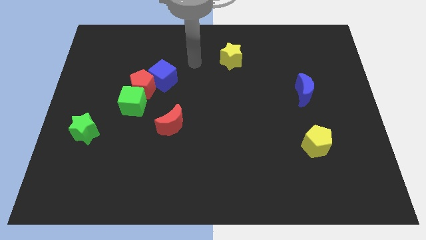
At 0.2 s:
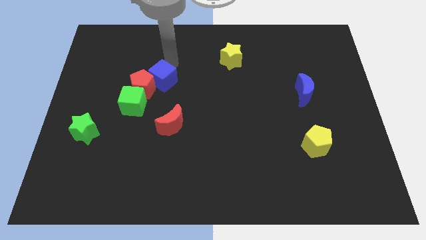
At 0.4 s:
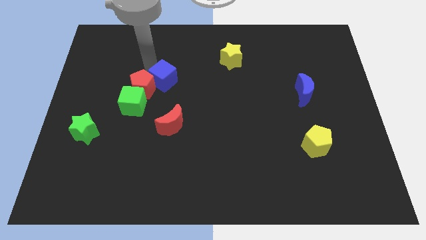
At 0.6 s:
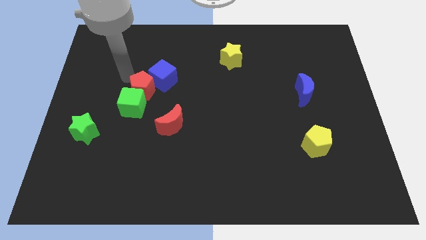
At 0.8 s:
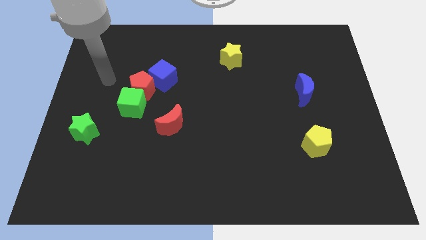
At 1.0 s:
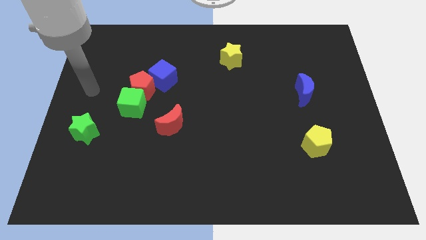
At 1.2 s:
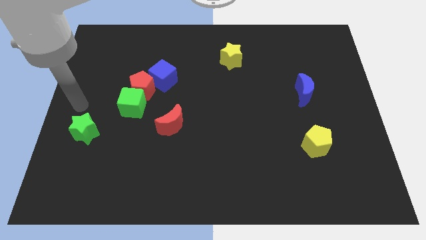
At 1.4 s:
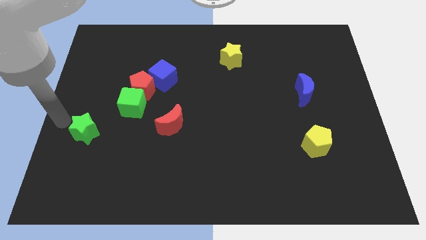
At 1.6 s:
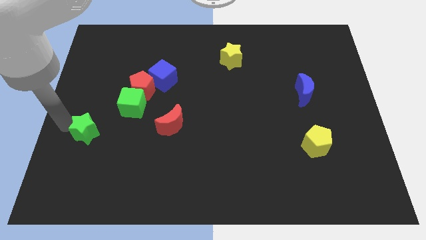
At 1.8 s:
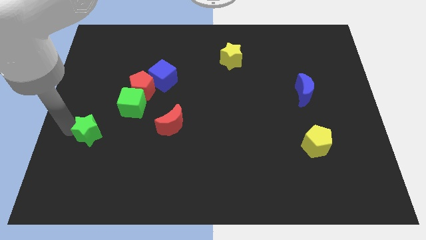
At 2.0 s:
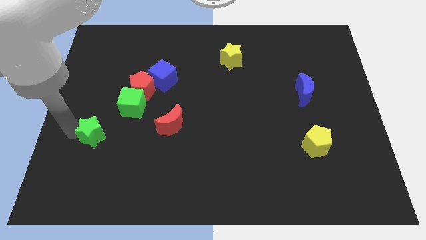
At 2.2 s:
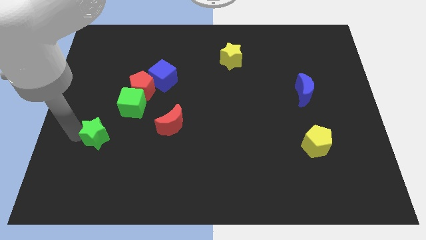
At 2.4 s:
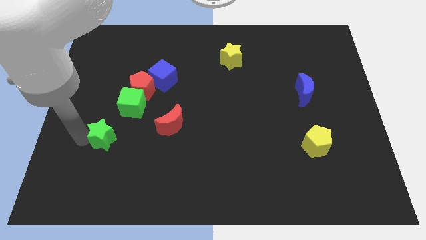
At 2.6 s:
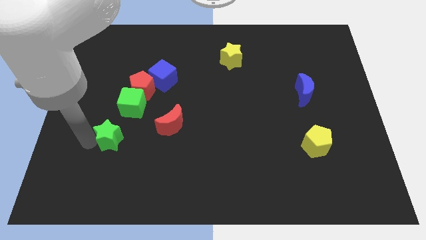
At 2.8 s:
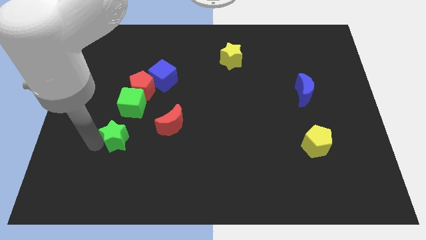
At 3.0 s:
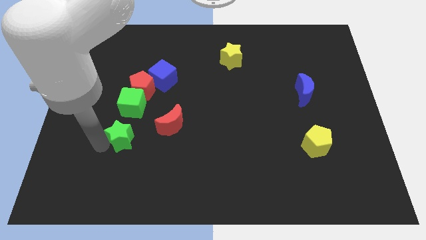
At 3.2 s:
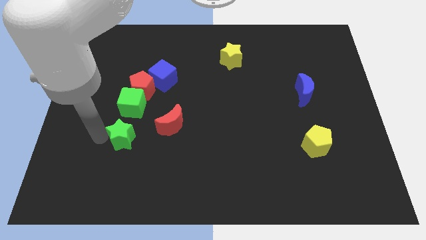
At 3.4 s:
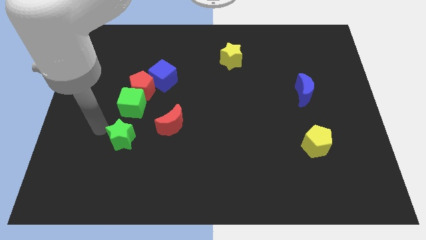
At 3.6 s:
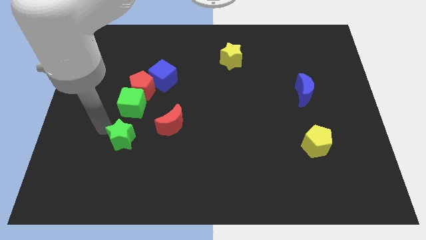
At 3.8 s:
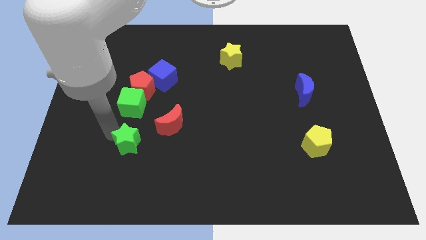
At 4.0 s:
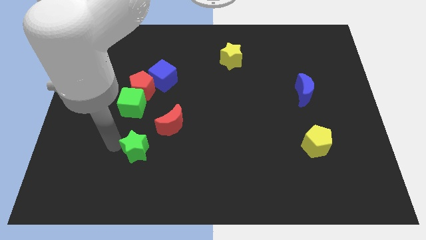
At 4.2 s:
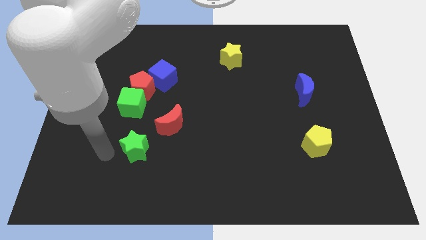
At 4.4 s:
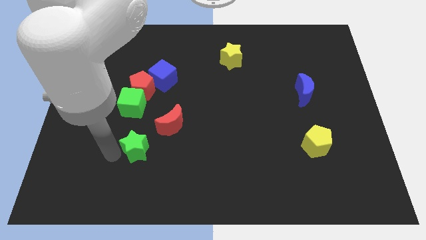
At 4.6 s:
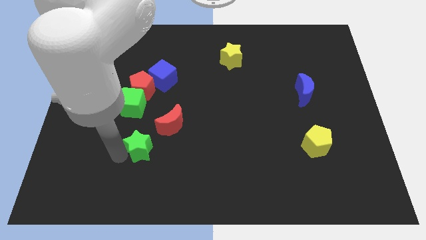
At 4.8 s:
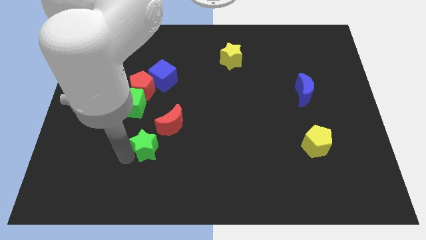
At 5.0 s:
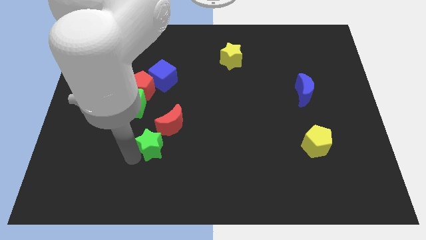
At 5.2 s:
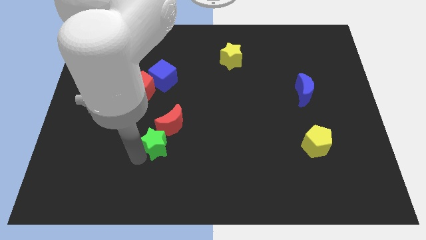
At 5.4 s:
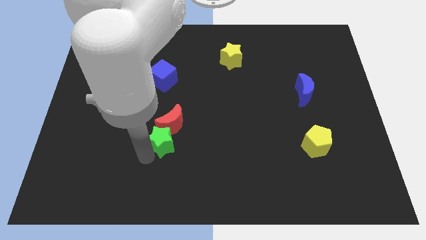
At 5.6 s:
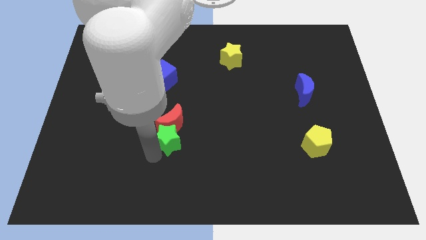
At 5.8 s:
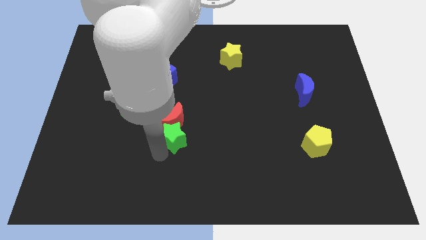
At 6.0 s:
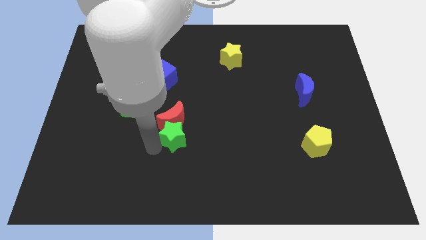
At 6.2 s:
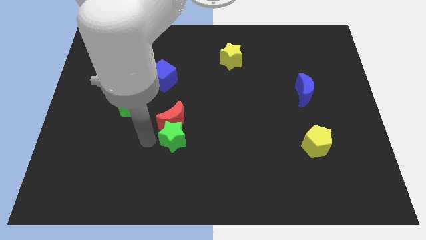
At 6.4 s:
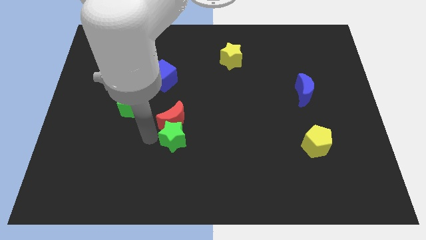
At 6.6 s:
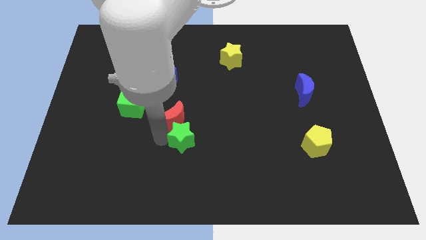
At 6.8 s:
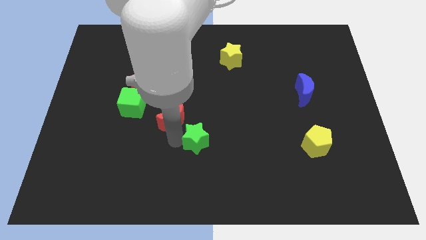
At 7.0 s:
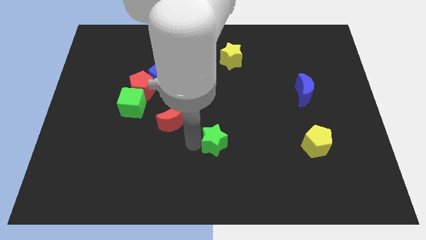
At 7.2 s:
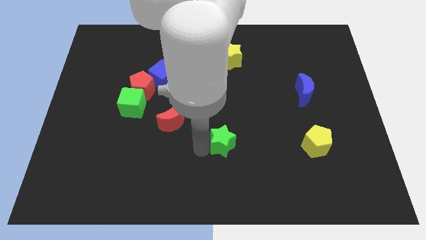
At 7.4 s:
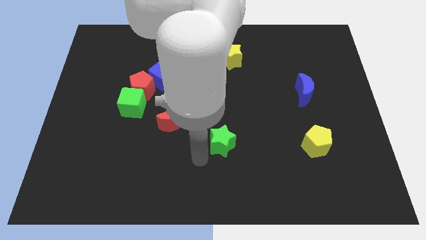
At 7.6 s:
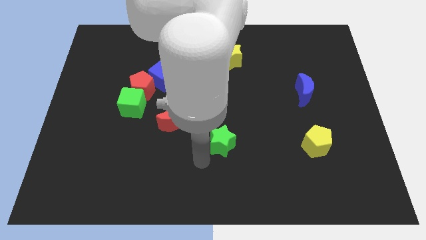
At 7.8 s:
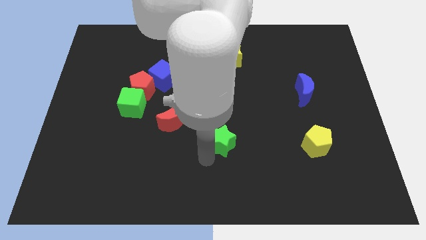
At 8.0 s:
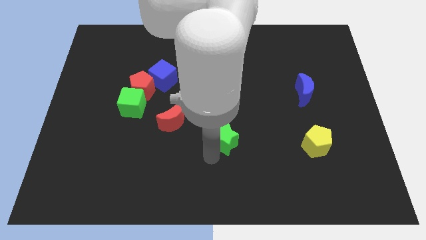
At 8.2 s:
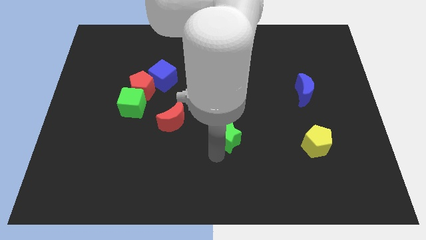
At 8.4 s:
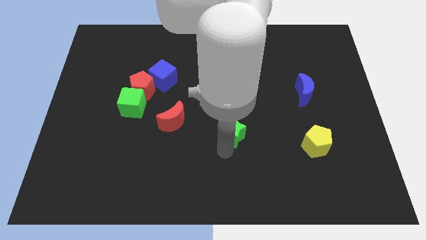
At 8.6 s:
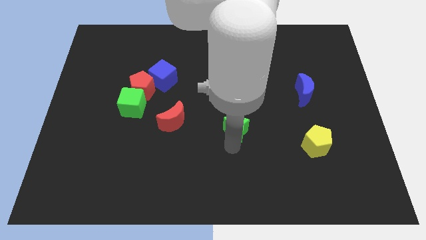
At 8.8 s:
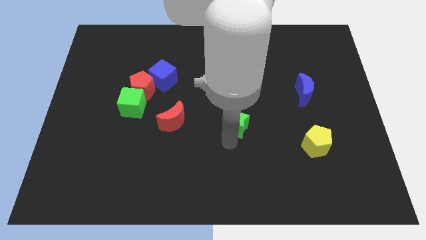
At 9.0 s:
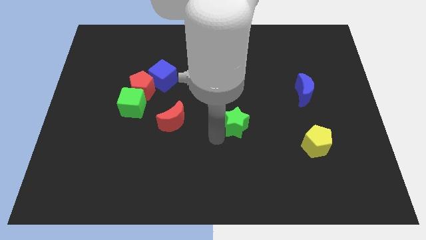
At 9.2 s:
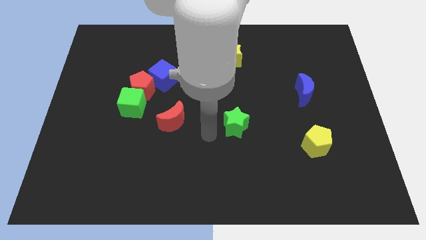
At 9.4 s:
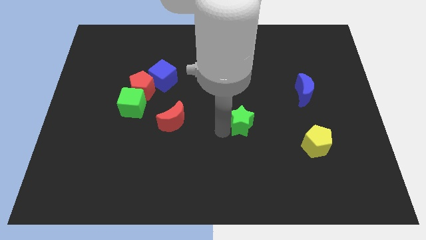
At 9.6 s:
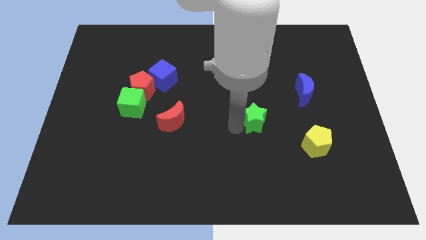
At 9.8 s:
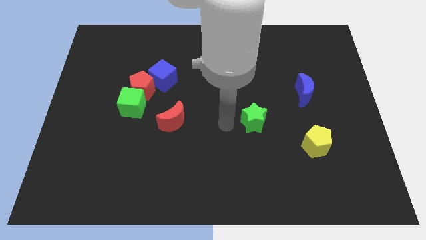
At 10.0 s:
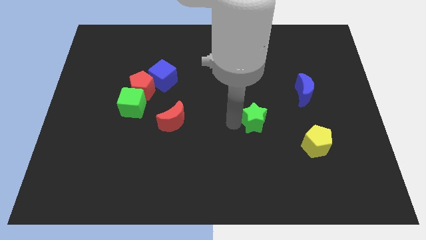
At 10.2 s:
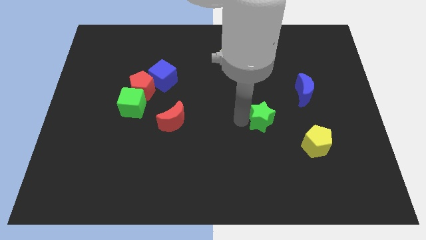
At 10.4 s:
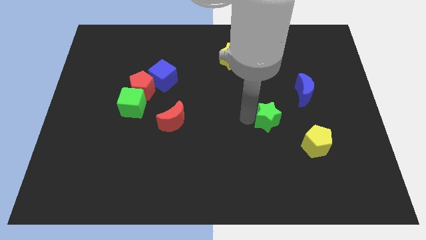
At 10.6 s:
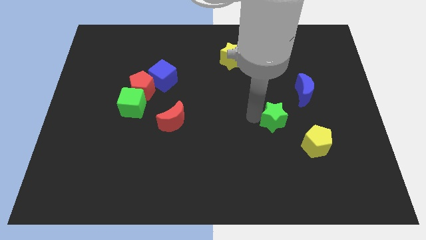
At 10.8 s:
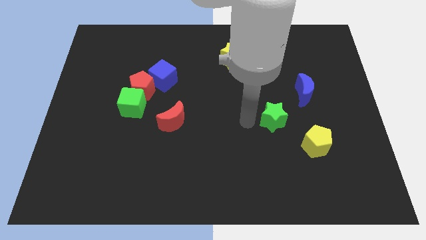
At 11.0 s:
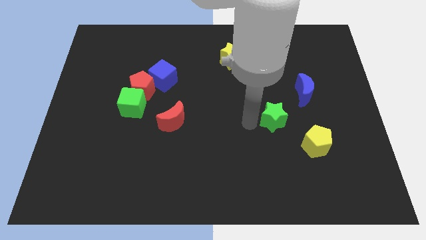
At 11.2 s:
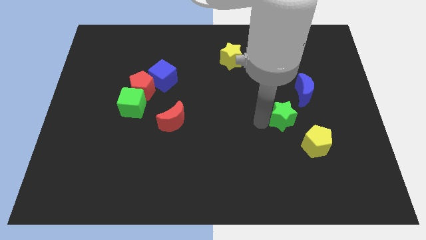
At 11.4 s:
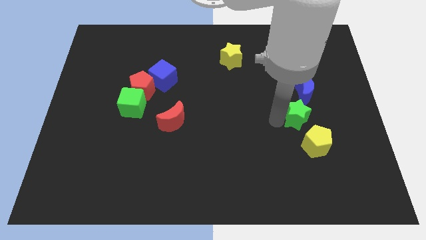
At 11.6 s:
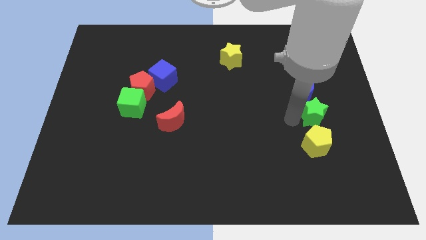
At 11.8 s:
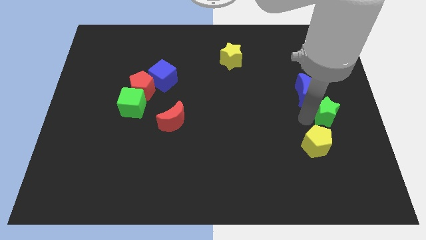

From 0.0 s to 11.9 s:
push the green star to the center right

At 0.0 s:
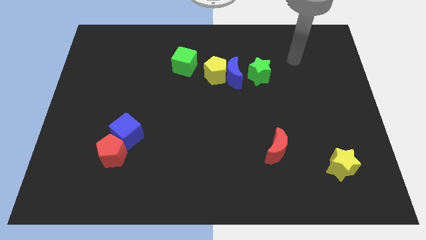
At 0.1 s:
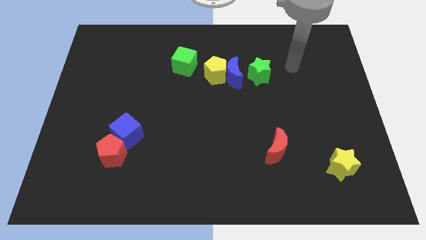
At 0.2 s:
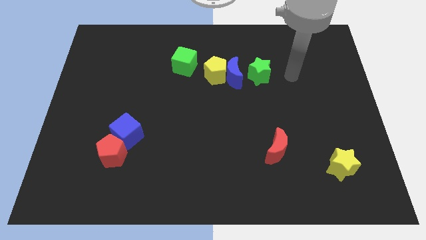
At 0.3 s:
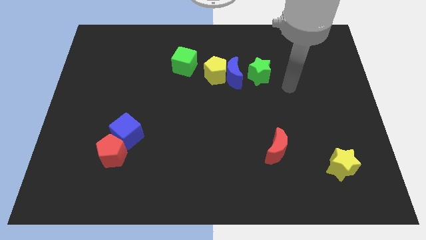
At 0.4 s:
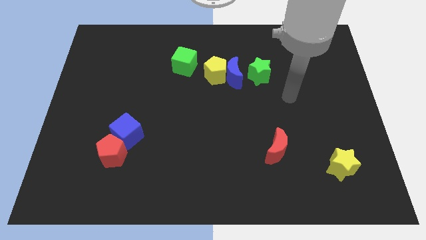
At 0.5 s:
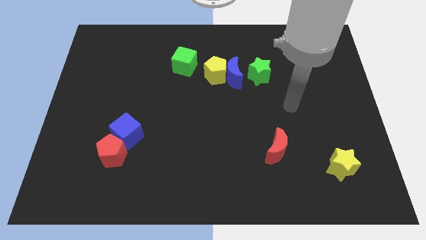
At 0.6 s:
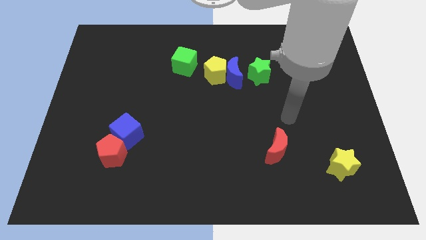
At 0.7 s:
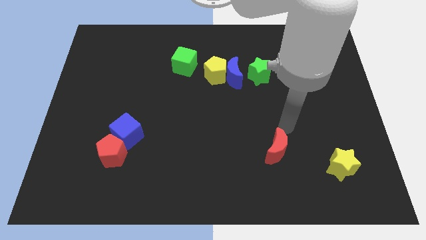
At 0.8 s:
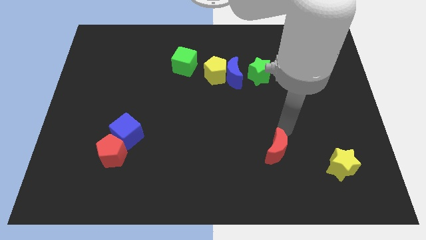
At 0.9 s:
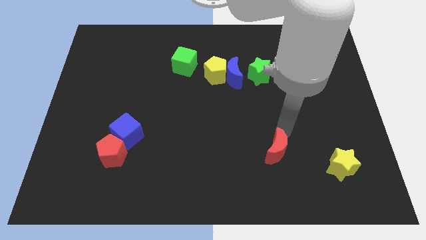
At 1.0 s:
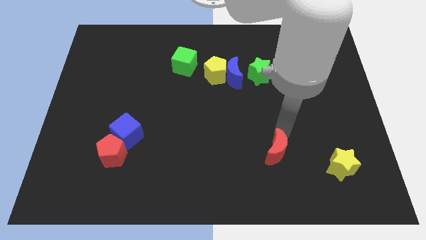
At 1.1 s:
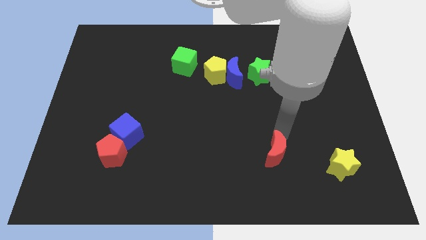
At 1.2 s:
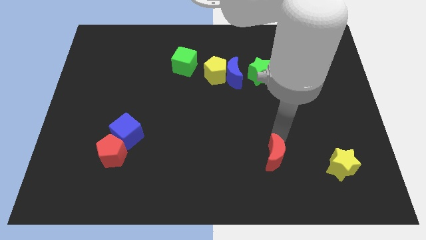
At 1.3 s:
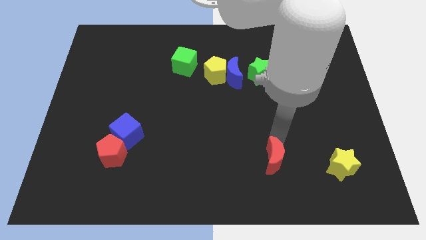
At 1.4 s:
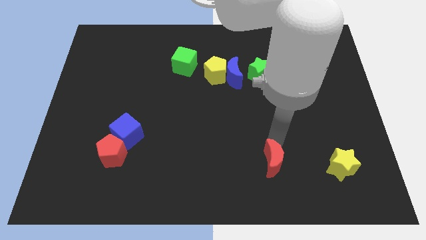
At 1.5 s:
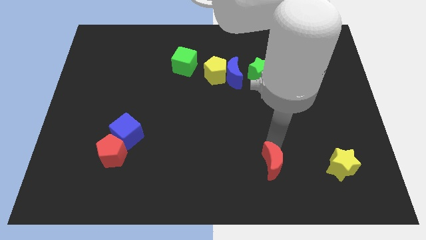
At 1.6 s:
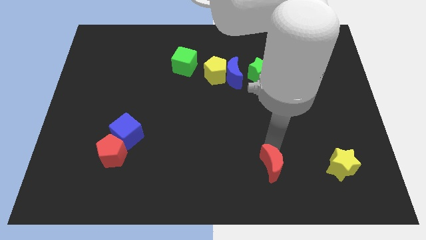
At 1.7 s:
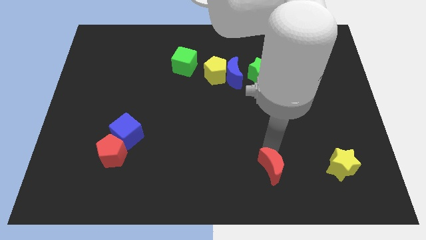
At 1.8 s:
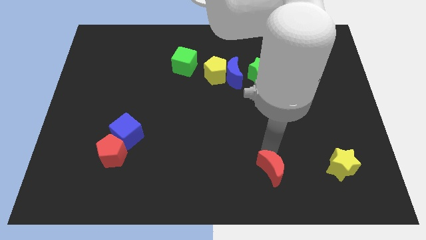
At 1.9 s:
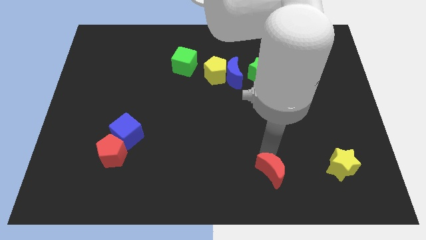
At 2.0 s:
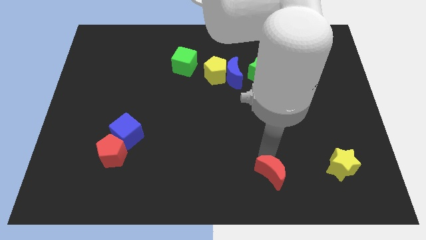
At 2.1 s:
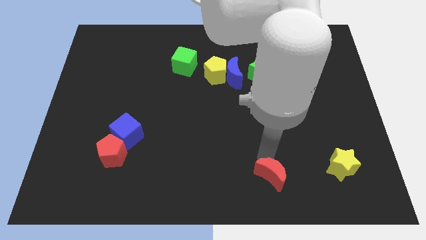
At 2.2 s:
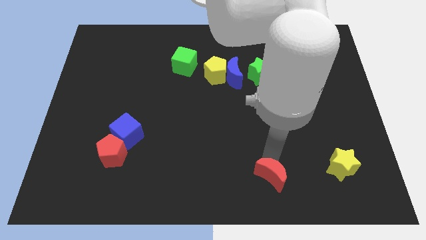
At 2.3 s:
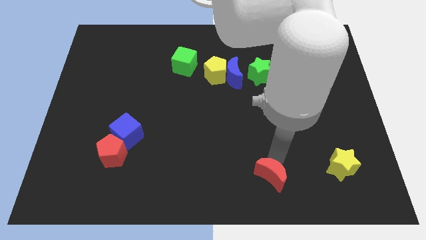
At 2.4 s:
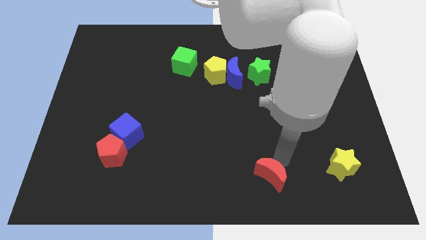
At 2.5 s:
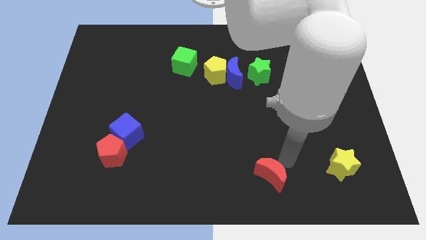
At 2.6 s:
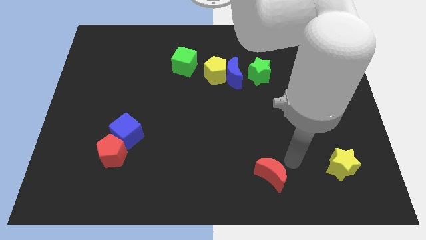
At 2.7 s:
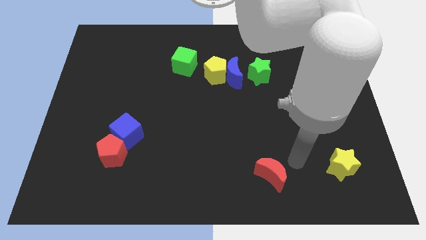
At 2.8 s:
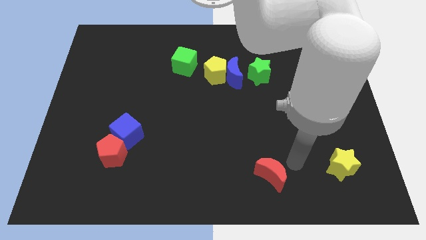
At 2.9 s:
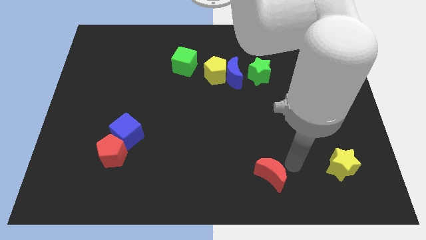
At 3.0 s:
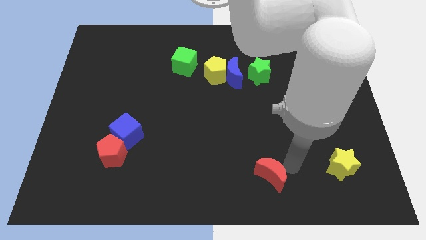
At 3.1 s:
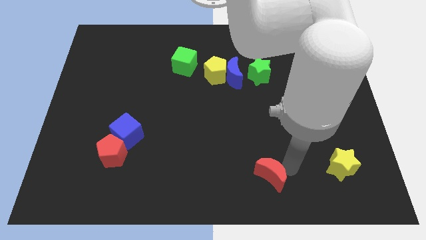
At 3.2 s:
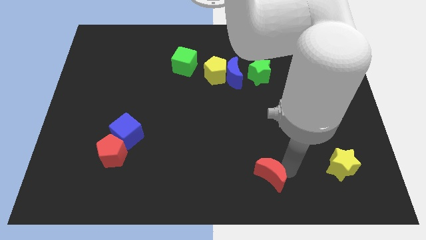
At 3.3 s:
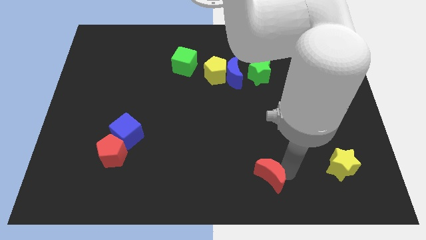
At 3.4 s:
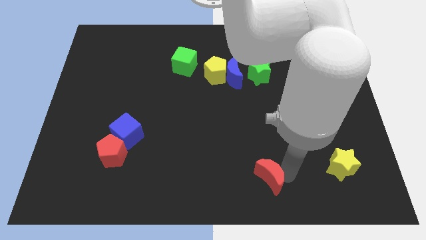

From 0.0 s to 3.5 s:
push the red moon to the bottom
